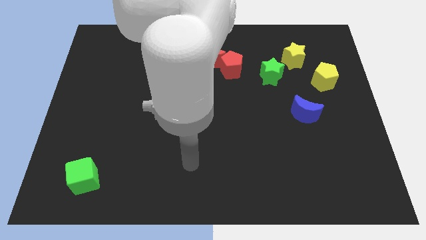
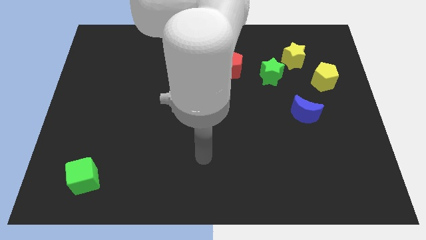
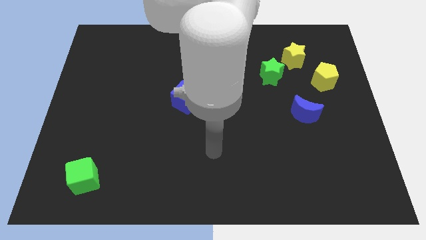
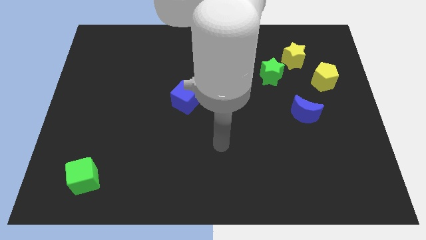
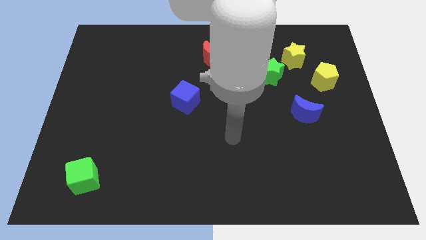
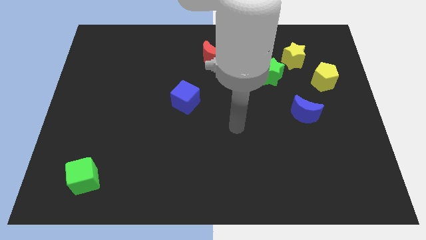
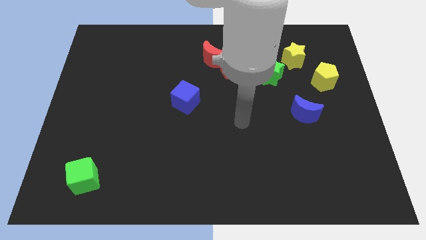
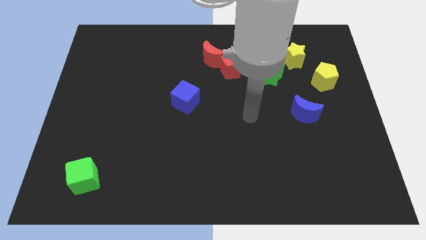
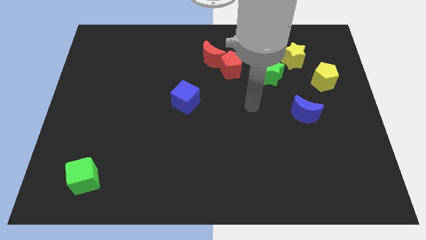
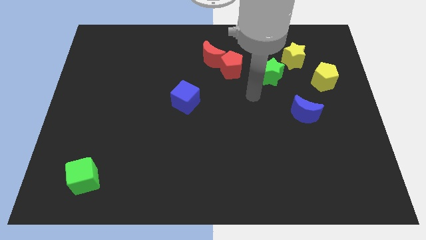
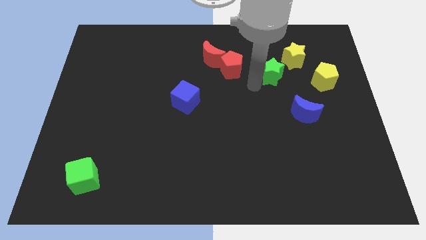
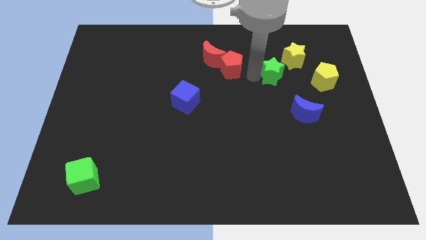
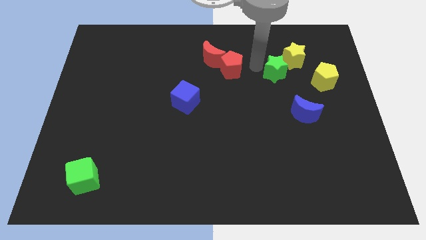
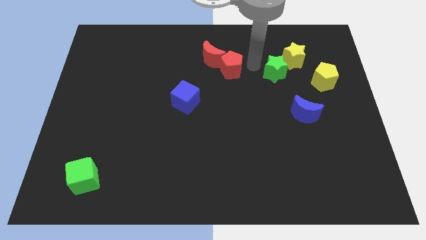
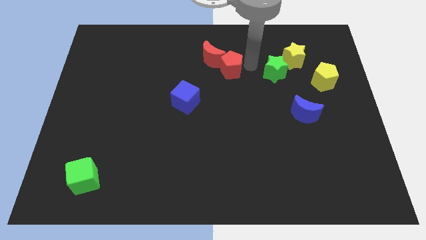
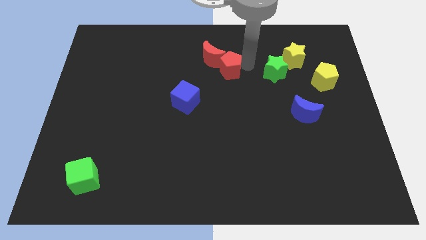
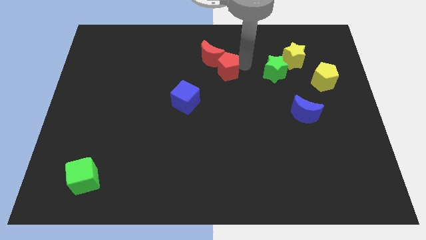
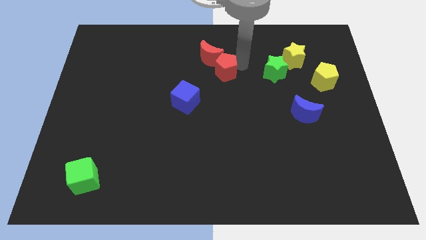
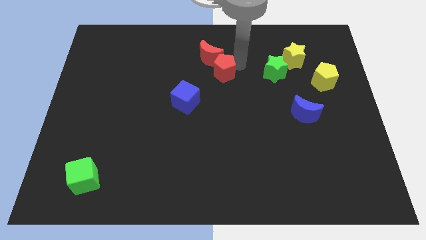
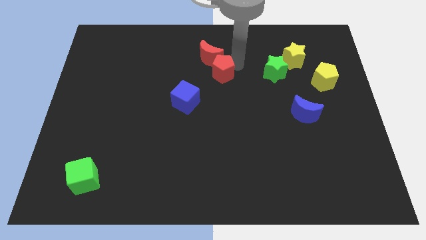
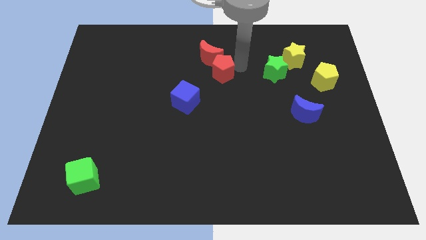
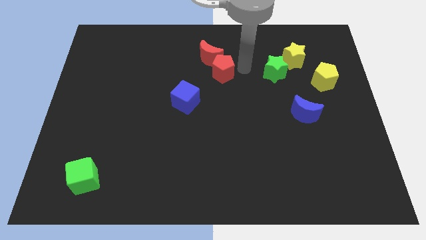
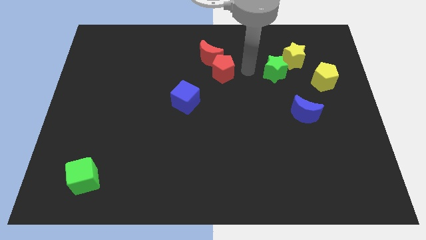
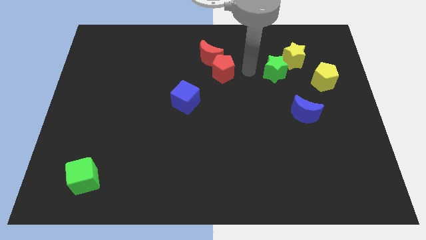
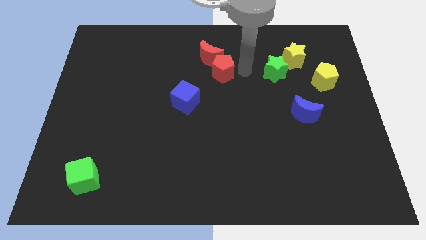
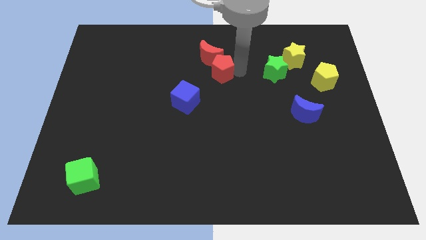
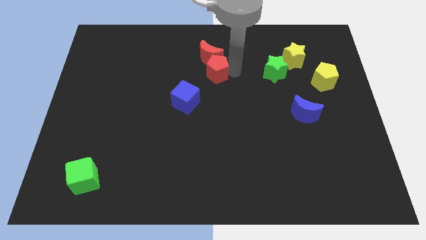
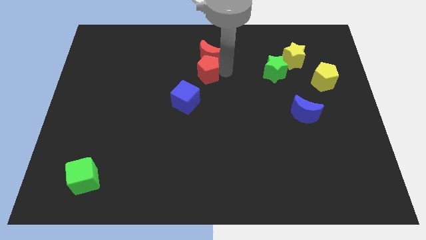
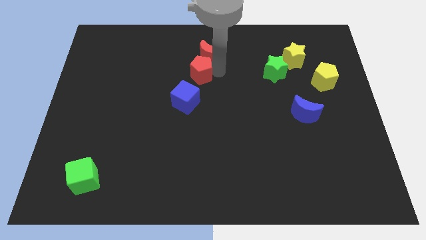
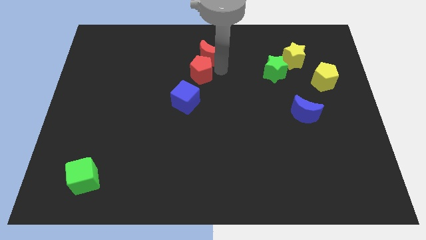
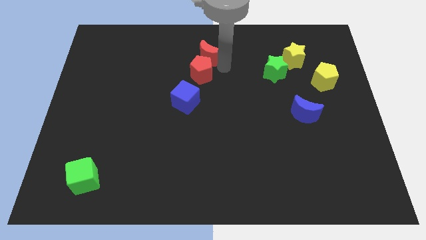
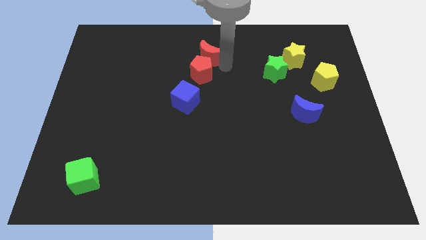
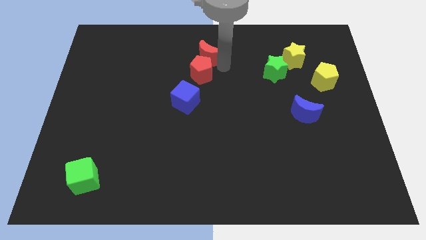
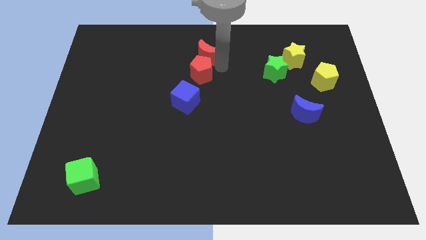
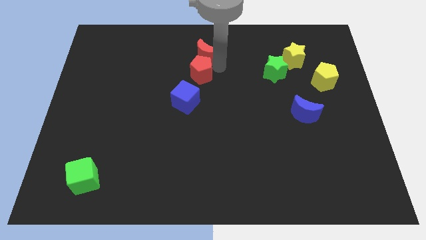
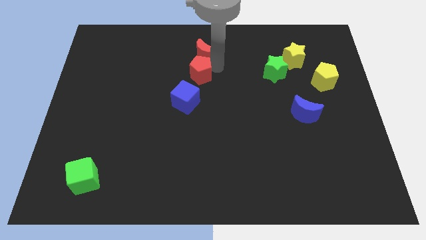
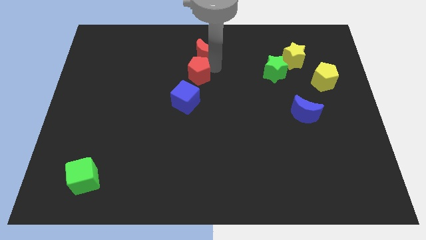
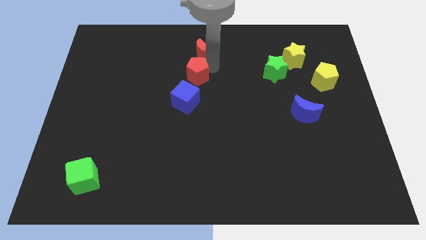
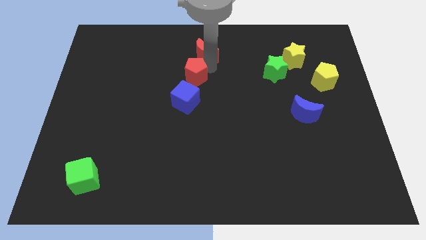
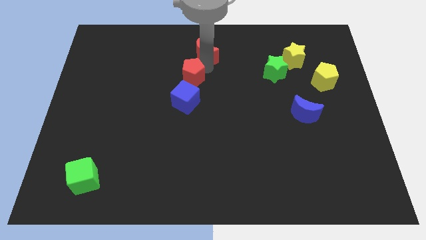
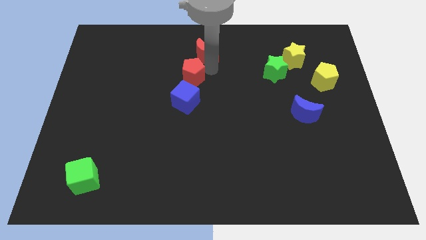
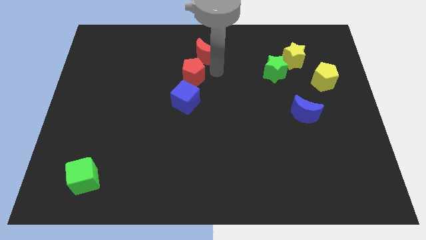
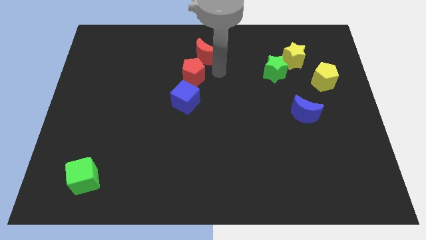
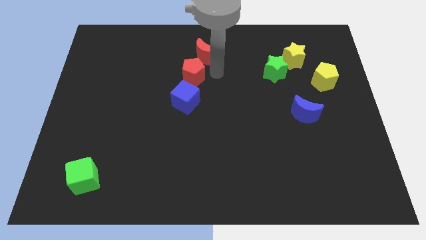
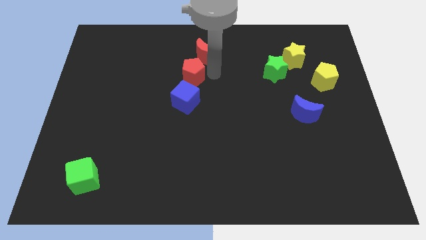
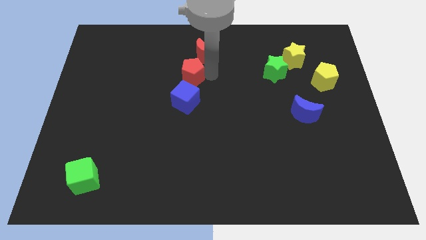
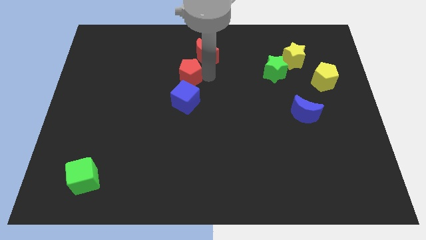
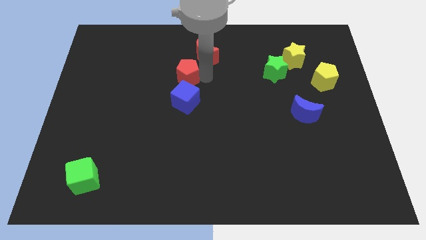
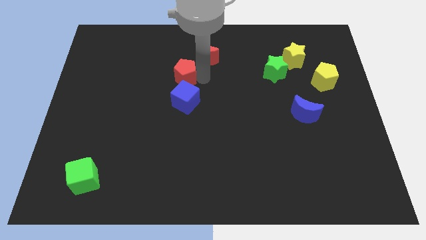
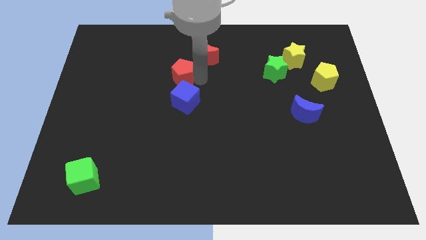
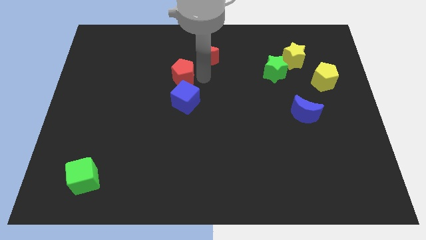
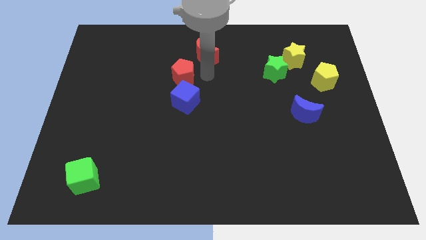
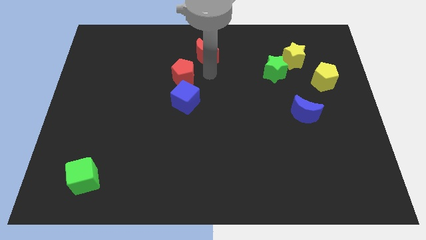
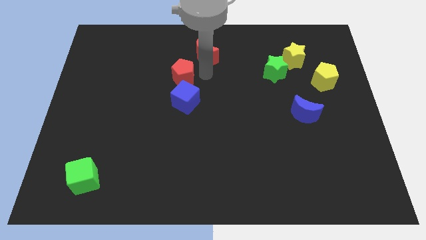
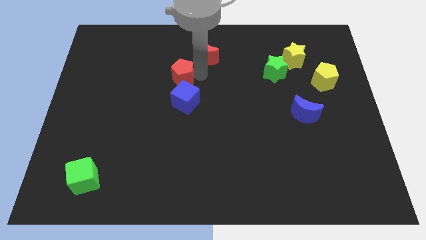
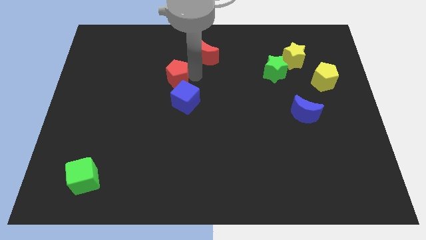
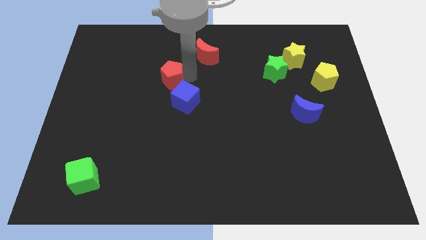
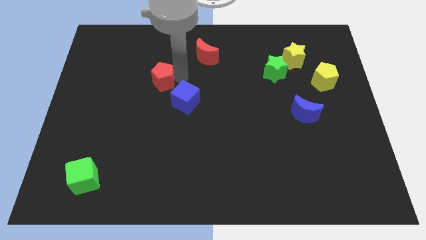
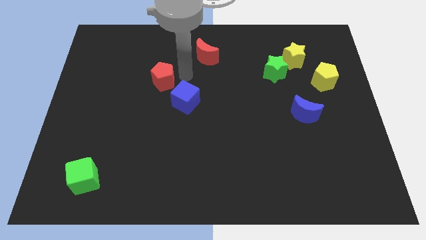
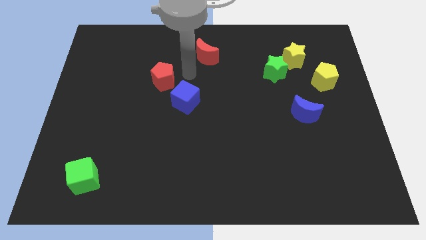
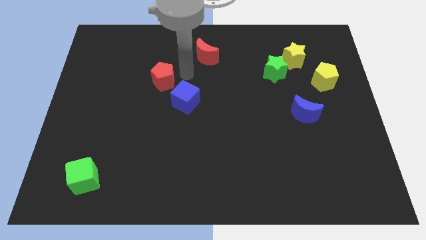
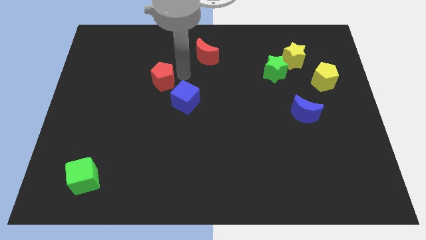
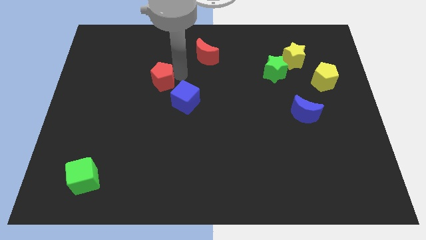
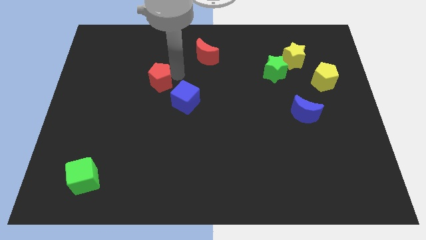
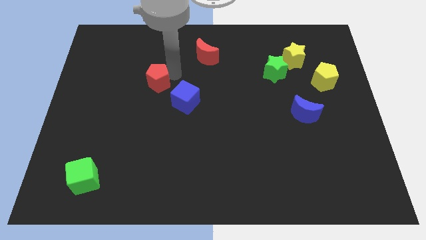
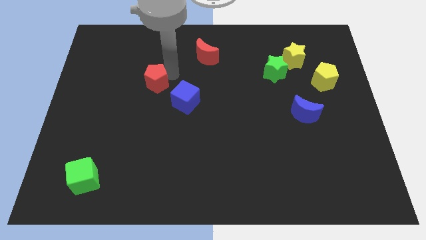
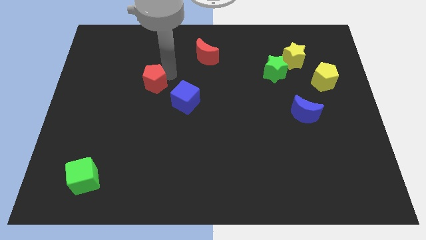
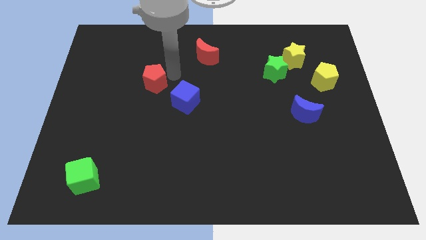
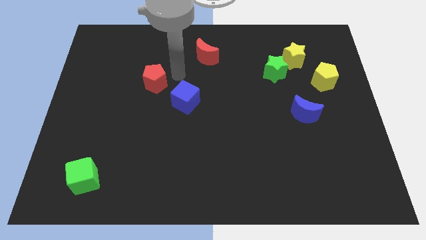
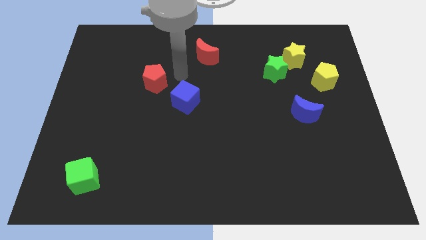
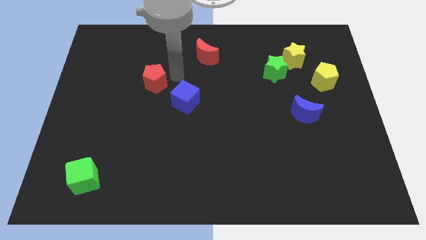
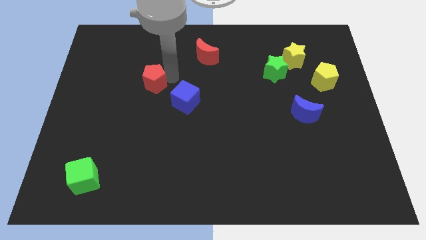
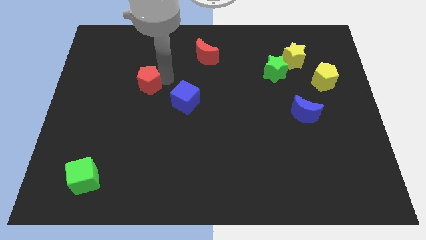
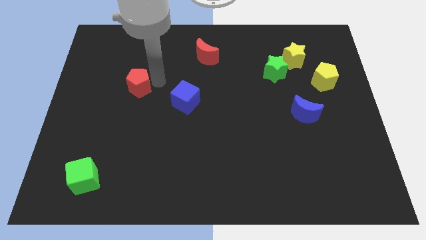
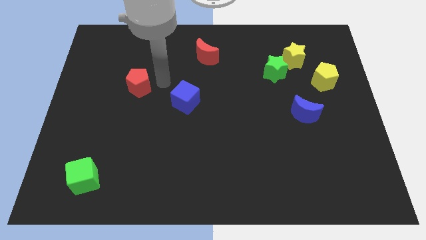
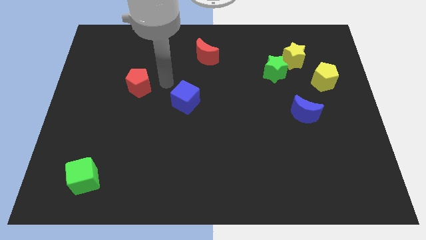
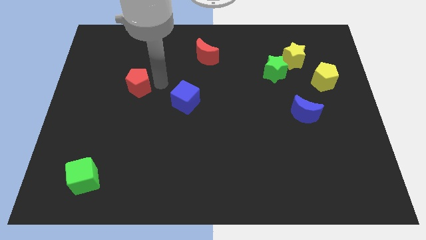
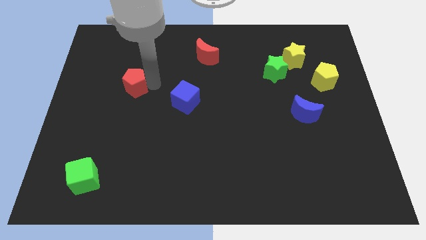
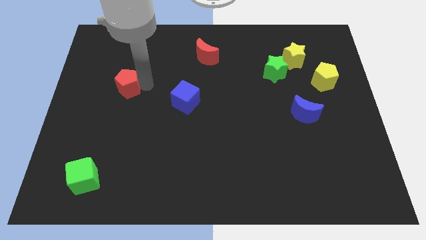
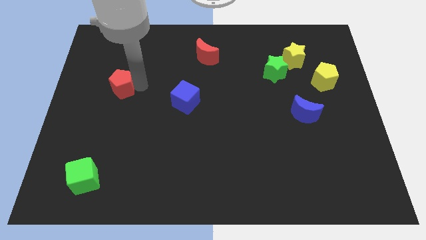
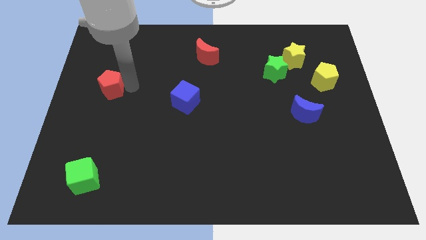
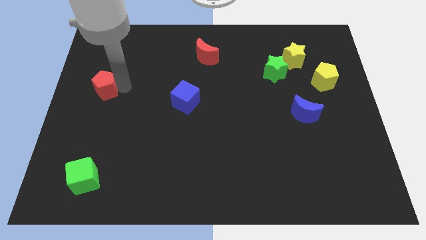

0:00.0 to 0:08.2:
move the red pentagon to the left side
